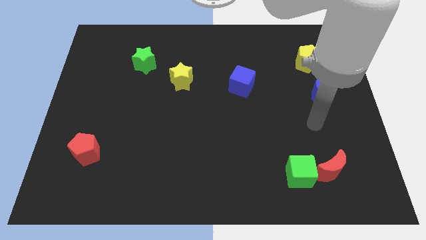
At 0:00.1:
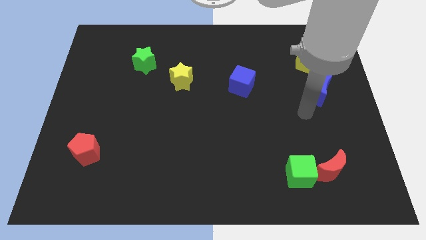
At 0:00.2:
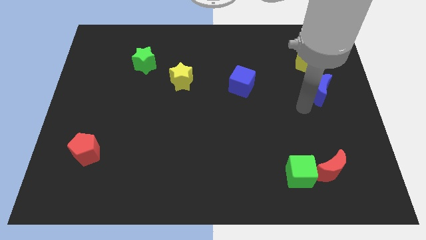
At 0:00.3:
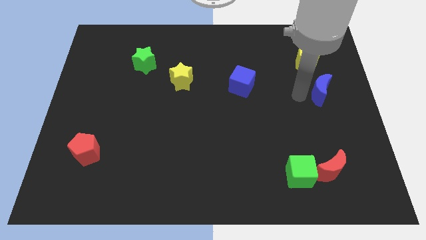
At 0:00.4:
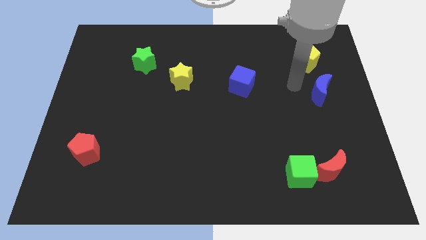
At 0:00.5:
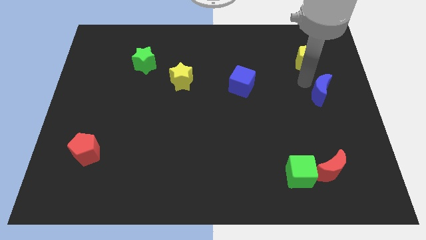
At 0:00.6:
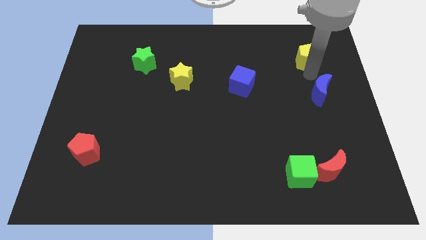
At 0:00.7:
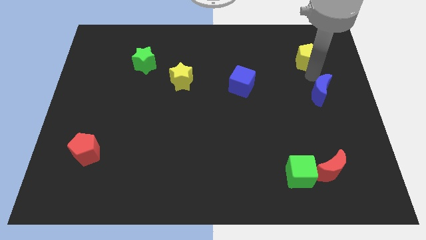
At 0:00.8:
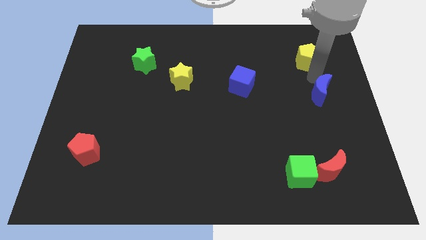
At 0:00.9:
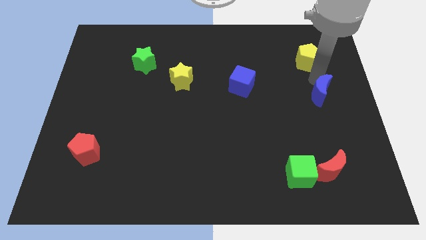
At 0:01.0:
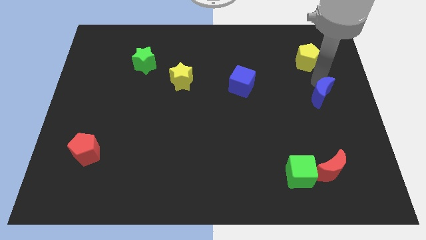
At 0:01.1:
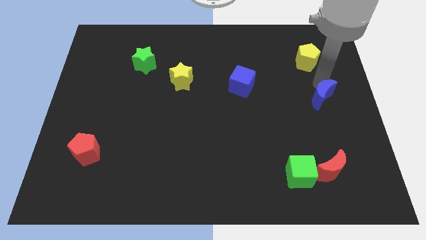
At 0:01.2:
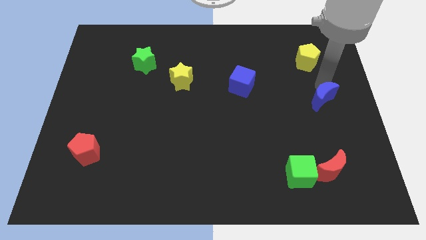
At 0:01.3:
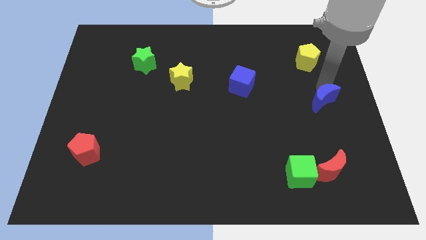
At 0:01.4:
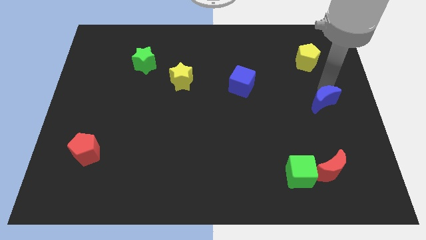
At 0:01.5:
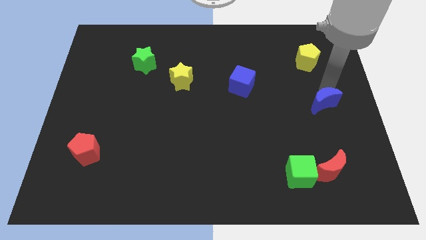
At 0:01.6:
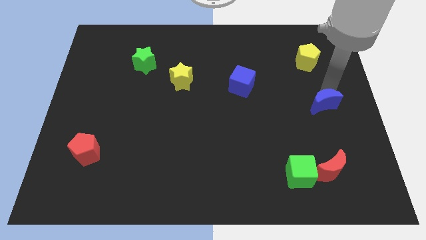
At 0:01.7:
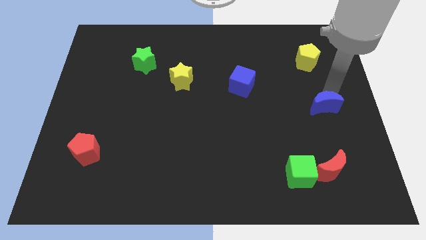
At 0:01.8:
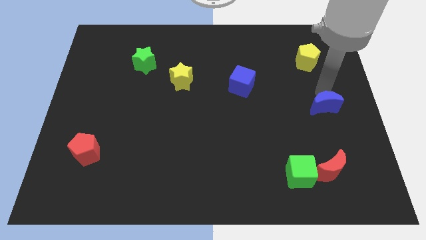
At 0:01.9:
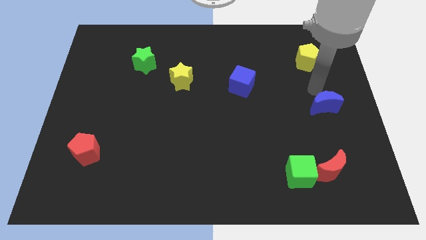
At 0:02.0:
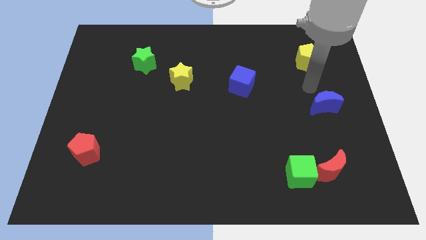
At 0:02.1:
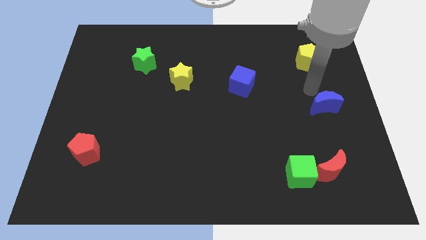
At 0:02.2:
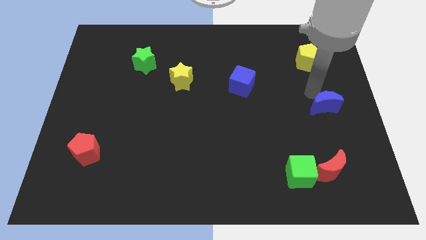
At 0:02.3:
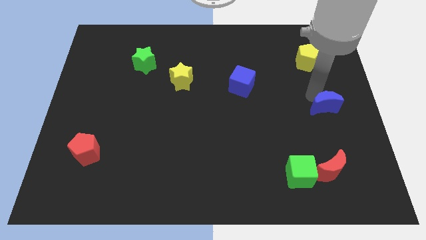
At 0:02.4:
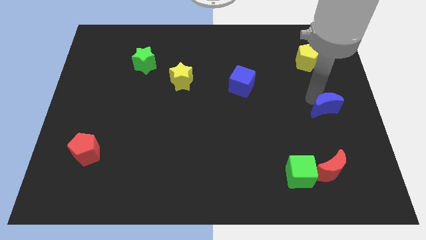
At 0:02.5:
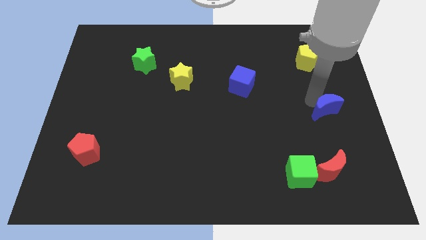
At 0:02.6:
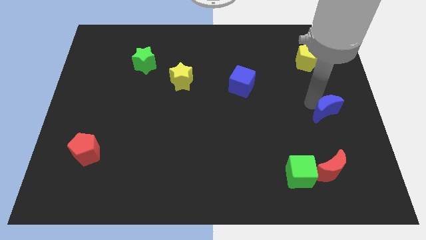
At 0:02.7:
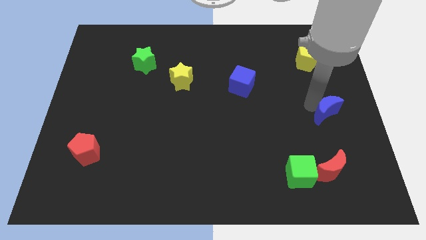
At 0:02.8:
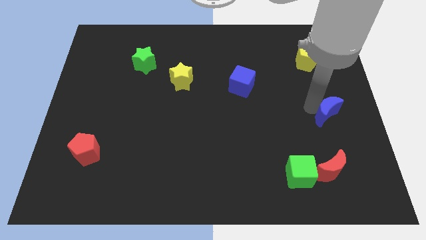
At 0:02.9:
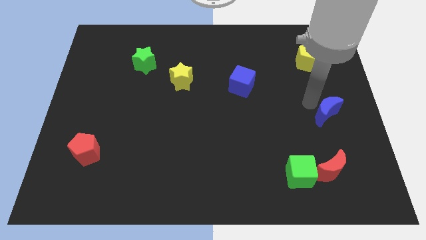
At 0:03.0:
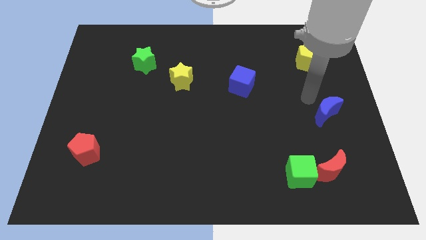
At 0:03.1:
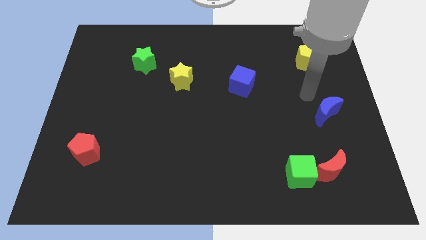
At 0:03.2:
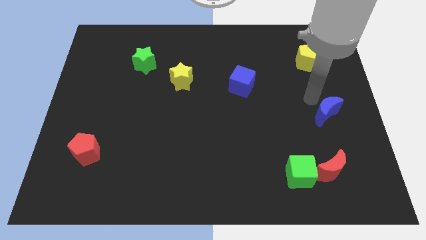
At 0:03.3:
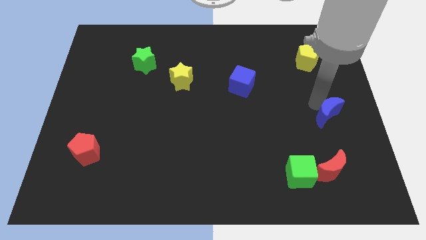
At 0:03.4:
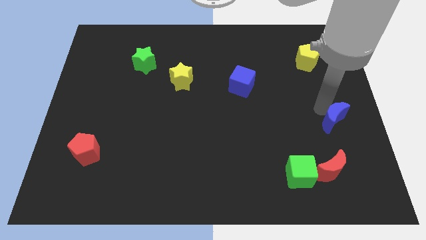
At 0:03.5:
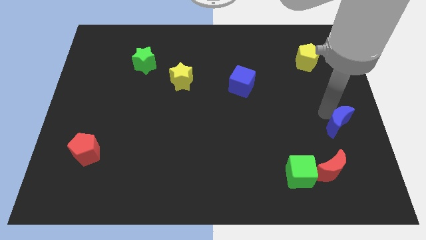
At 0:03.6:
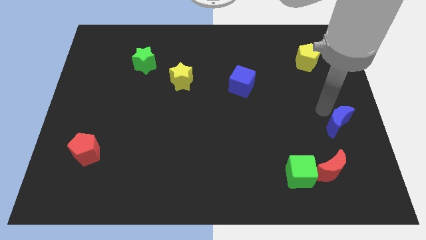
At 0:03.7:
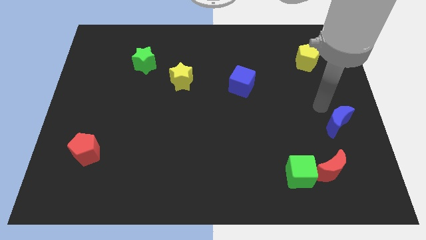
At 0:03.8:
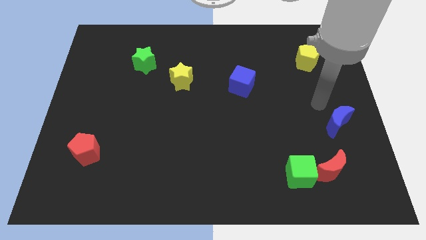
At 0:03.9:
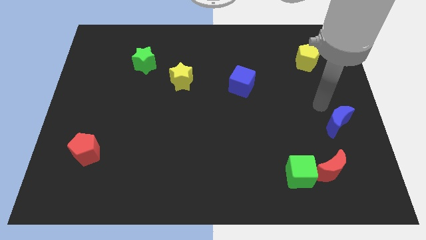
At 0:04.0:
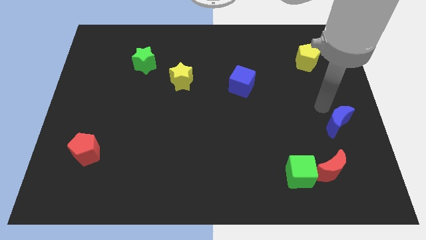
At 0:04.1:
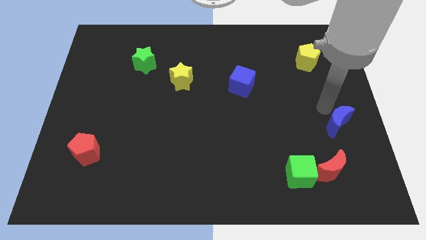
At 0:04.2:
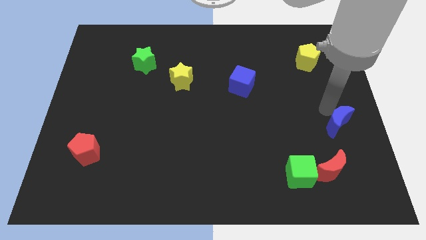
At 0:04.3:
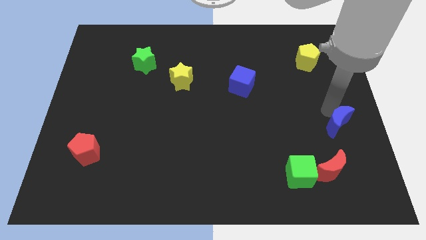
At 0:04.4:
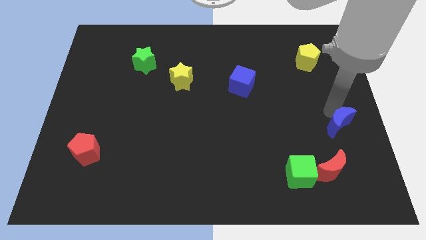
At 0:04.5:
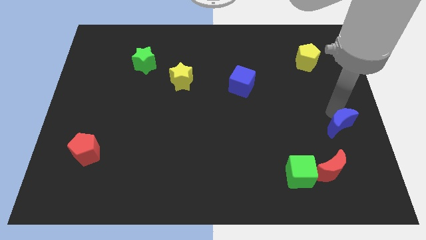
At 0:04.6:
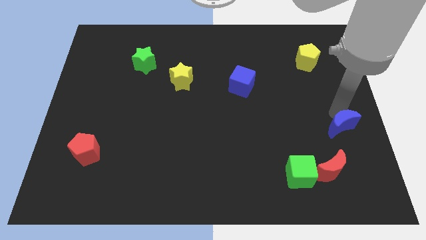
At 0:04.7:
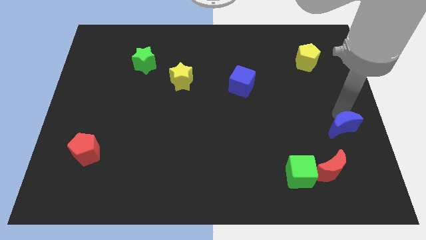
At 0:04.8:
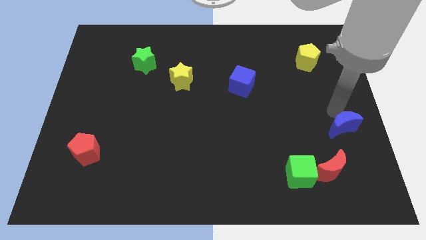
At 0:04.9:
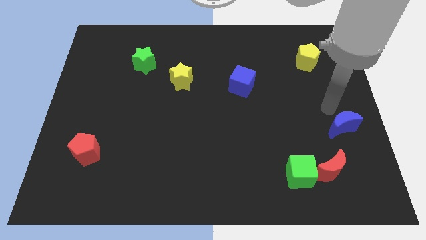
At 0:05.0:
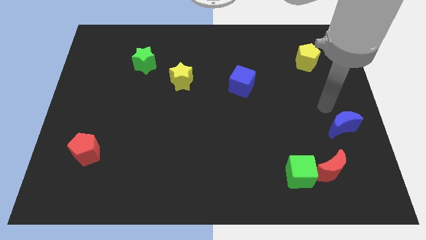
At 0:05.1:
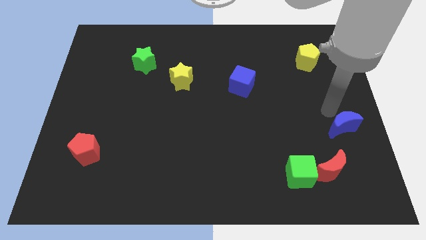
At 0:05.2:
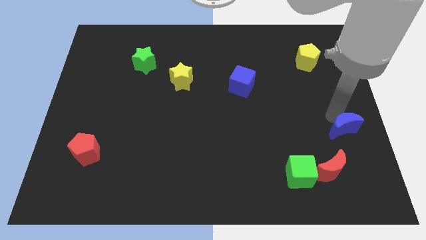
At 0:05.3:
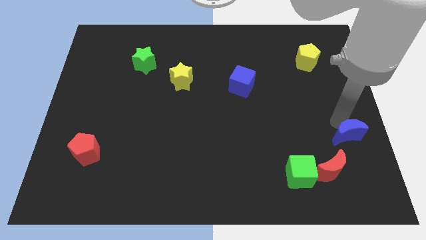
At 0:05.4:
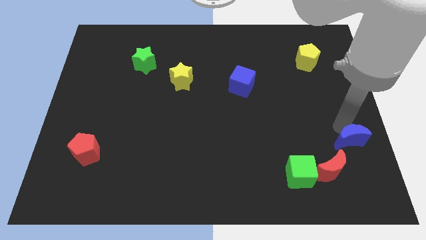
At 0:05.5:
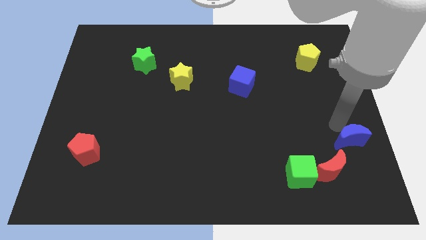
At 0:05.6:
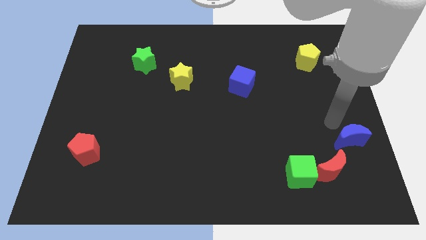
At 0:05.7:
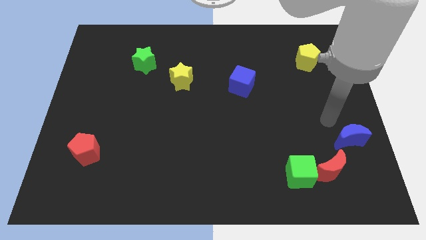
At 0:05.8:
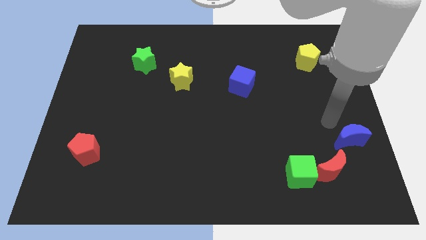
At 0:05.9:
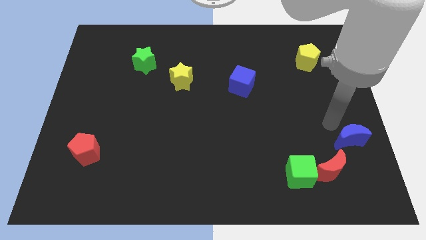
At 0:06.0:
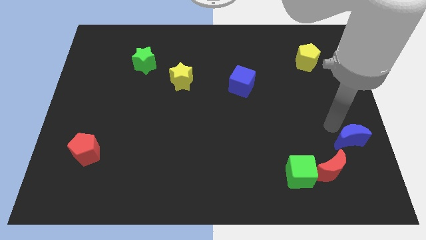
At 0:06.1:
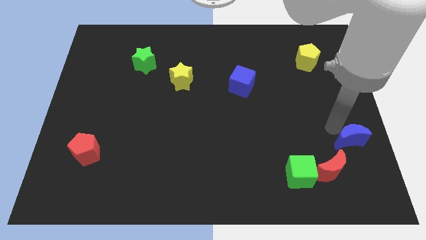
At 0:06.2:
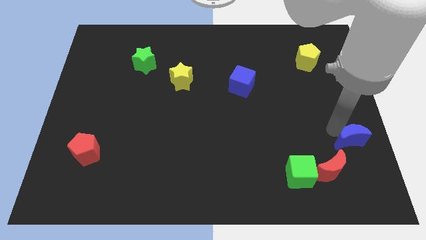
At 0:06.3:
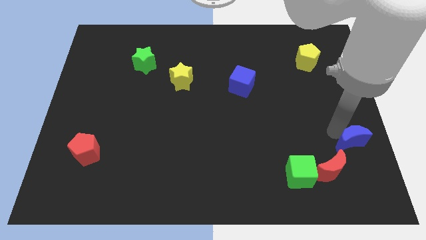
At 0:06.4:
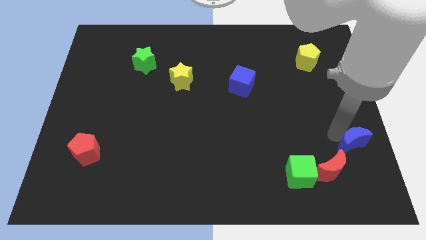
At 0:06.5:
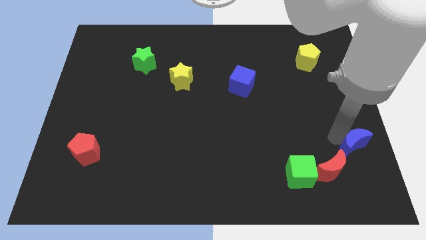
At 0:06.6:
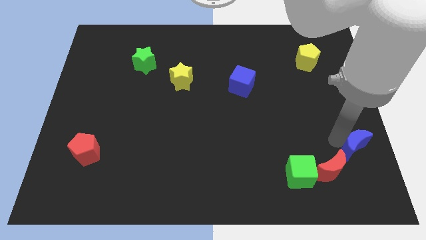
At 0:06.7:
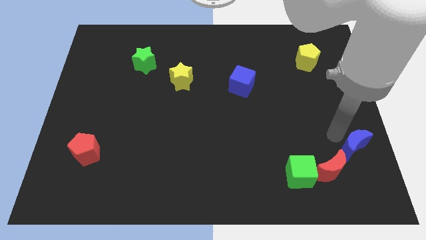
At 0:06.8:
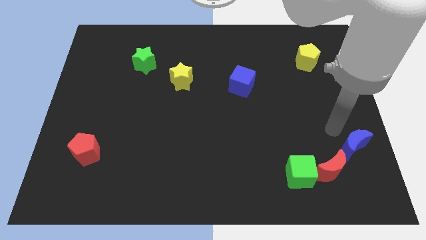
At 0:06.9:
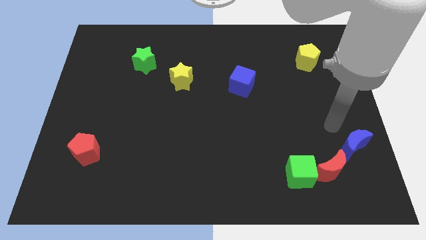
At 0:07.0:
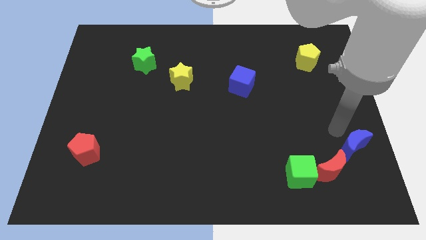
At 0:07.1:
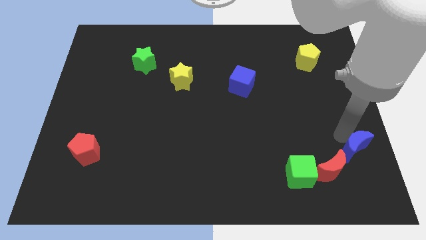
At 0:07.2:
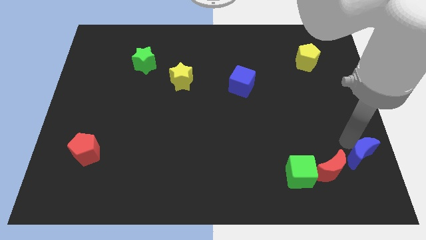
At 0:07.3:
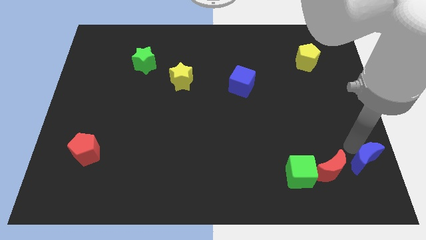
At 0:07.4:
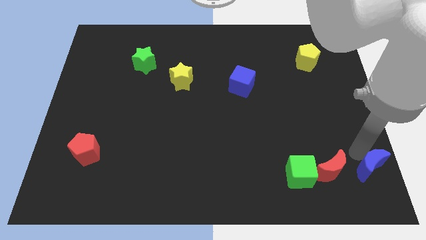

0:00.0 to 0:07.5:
push the blue moon to the bottom right of the board
